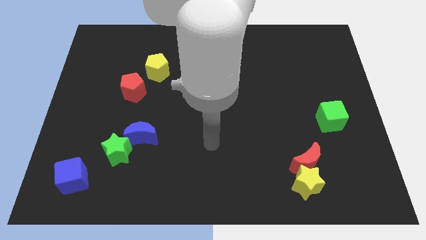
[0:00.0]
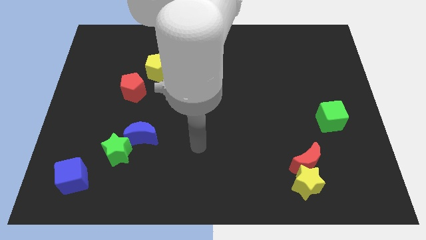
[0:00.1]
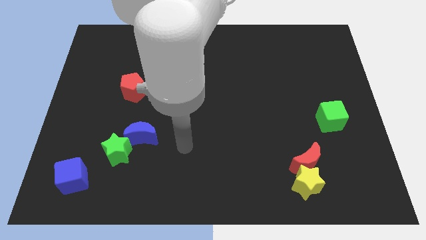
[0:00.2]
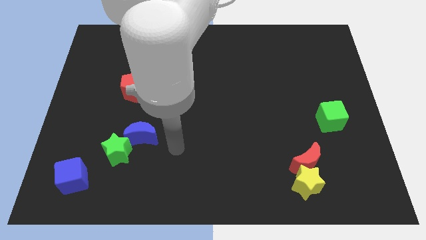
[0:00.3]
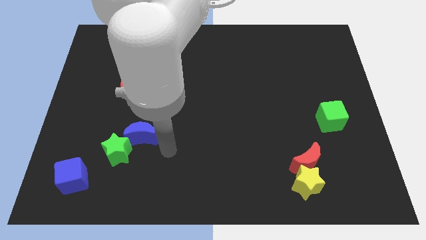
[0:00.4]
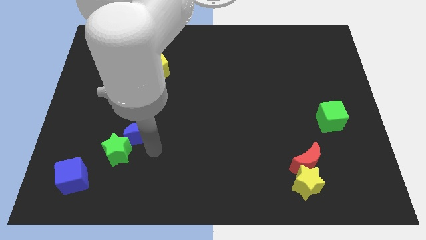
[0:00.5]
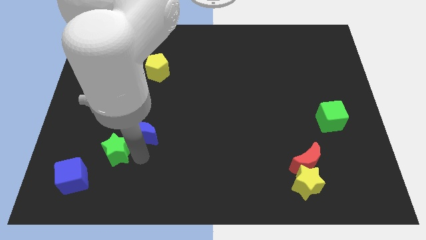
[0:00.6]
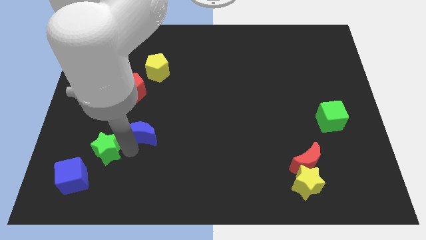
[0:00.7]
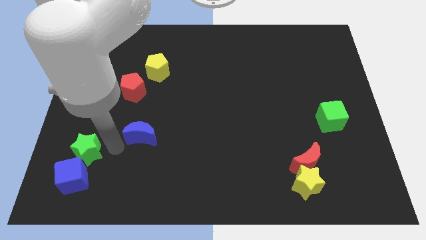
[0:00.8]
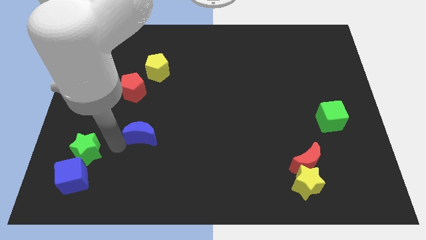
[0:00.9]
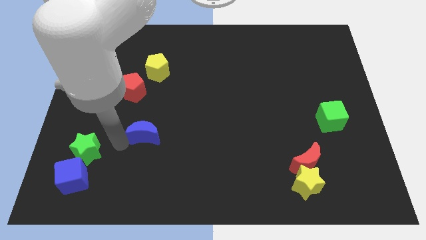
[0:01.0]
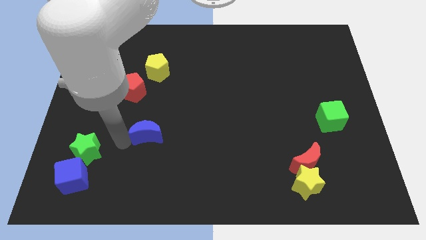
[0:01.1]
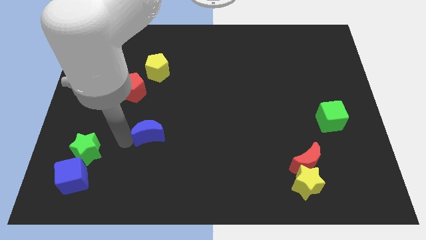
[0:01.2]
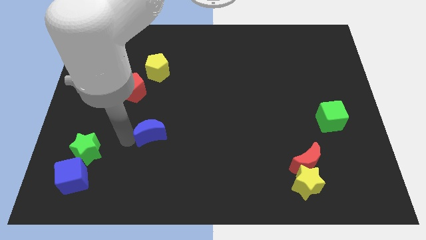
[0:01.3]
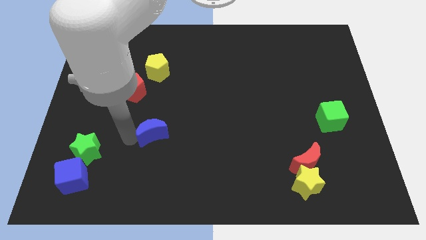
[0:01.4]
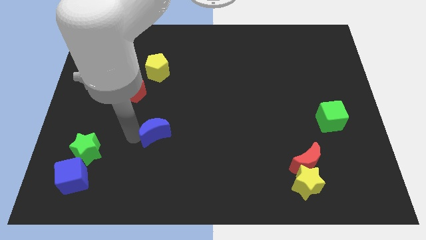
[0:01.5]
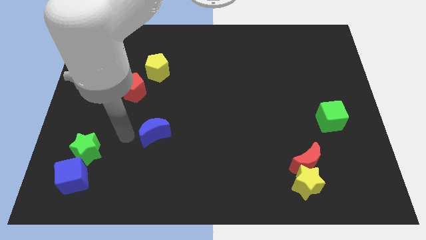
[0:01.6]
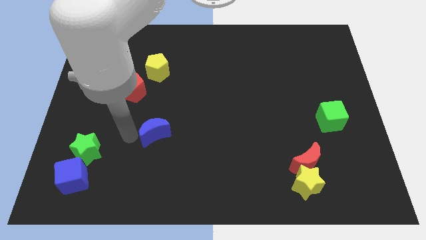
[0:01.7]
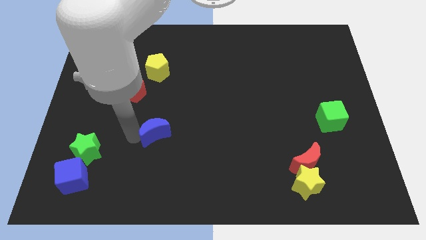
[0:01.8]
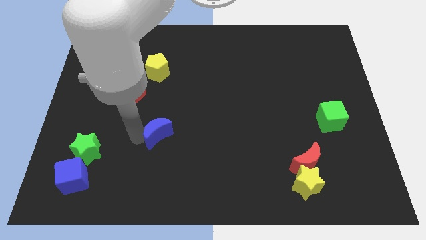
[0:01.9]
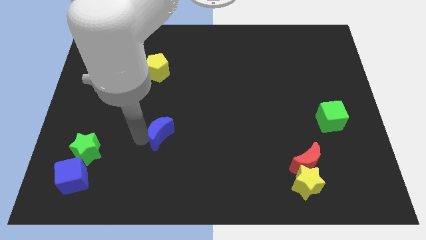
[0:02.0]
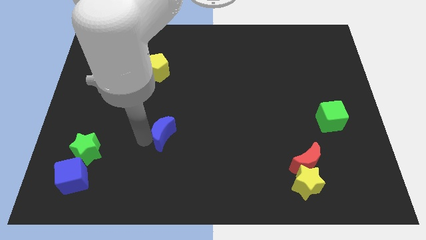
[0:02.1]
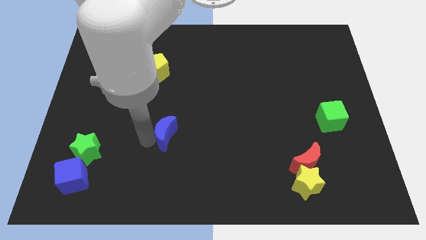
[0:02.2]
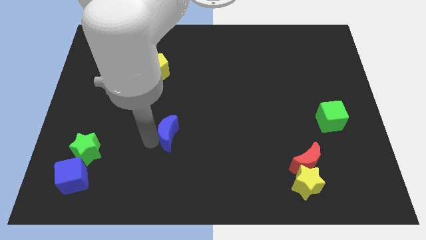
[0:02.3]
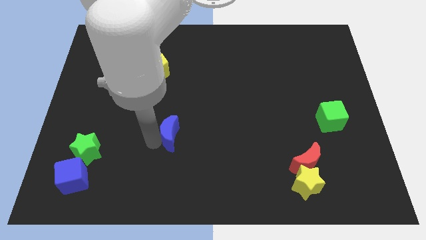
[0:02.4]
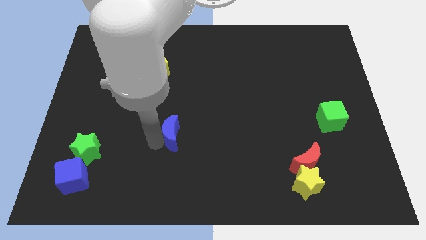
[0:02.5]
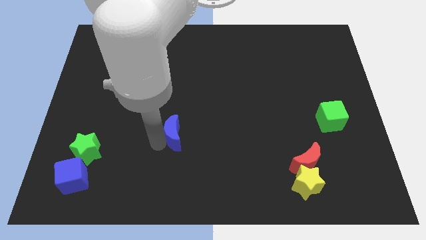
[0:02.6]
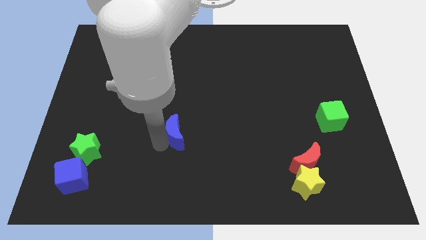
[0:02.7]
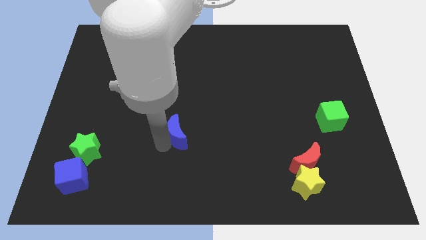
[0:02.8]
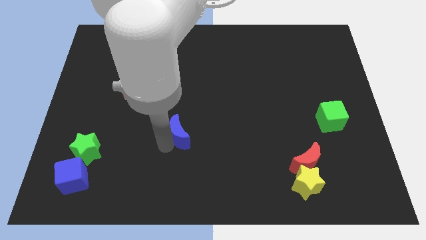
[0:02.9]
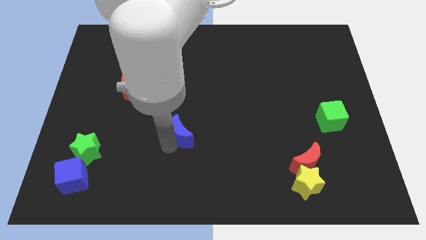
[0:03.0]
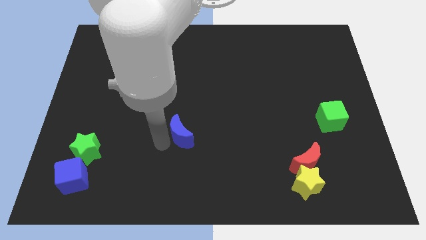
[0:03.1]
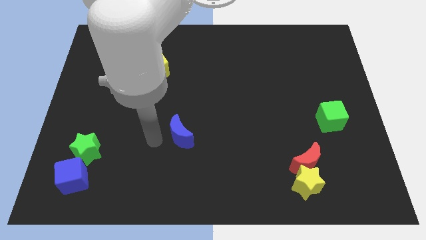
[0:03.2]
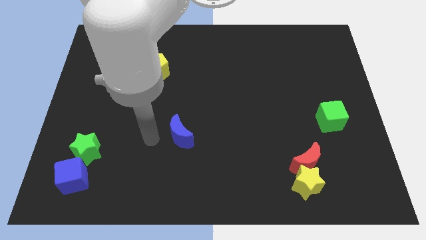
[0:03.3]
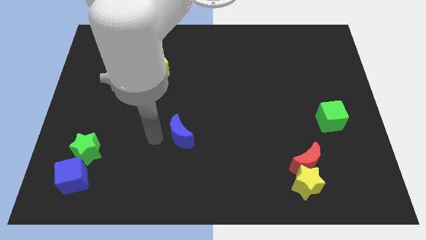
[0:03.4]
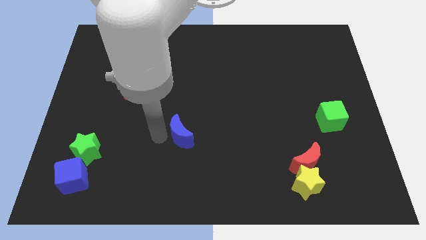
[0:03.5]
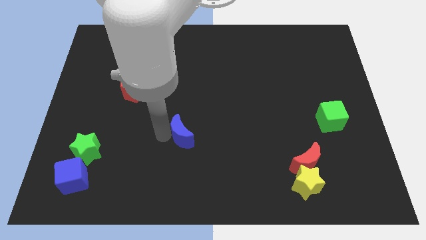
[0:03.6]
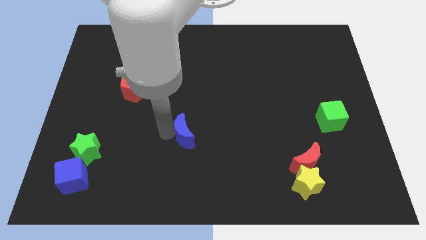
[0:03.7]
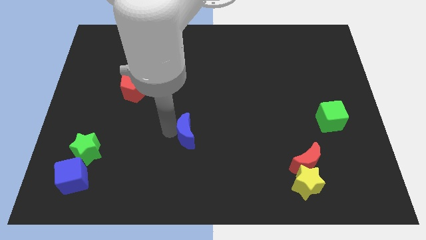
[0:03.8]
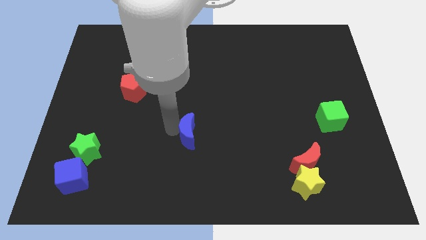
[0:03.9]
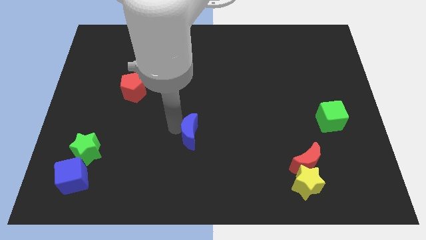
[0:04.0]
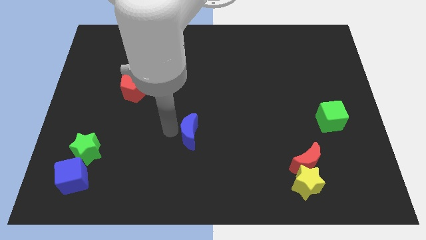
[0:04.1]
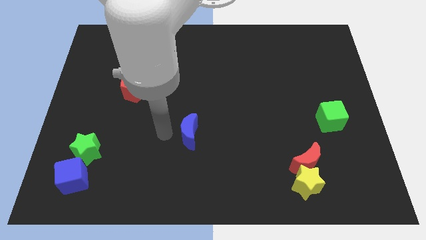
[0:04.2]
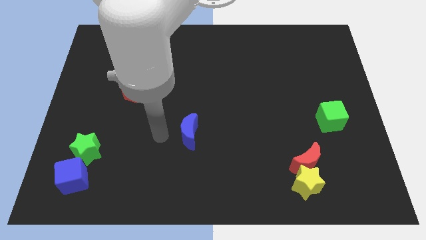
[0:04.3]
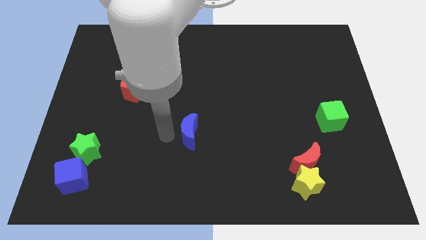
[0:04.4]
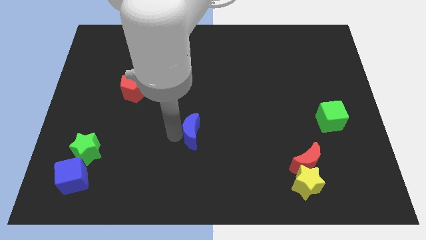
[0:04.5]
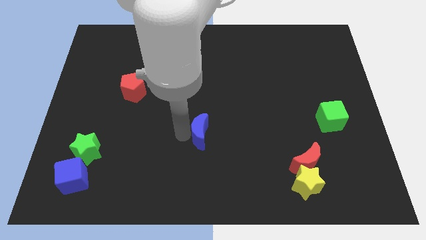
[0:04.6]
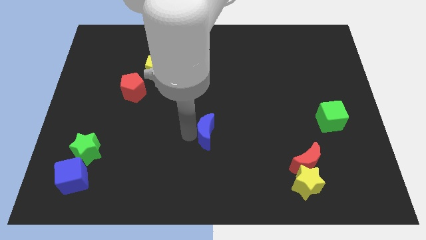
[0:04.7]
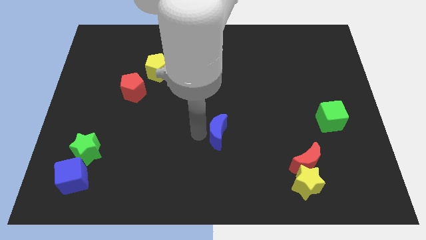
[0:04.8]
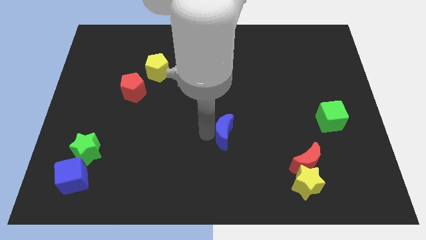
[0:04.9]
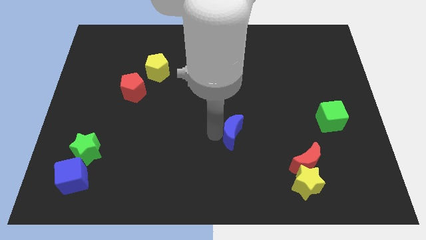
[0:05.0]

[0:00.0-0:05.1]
move the blue moon to the right

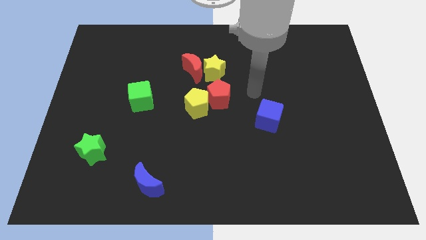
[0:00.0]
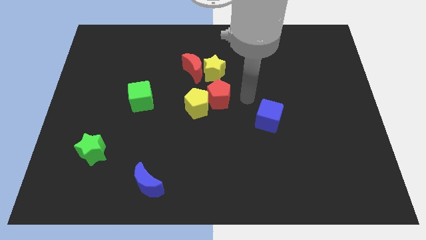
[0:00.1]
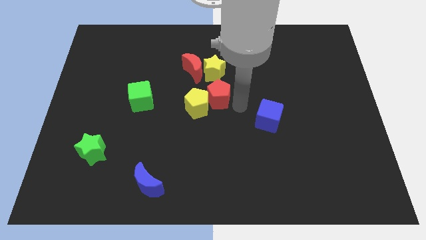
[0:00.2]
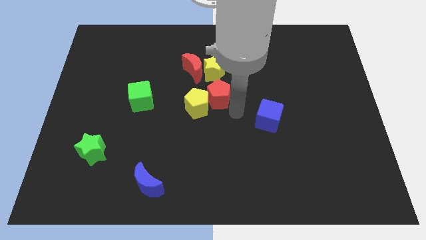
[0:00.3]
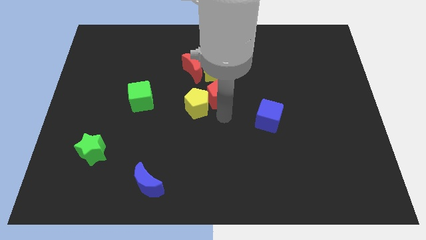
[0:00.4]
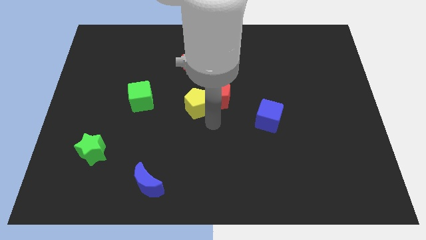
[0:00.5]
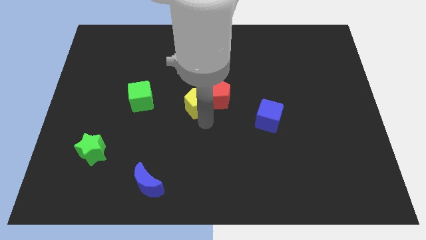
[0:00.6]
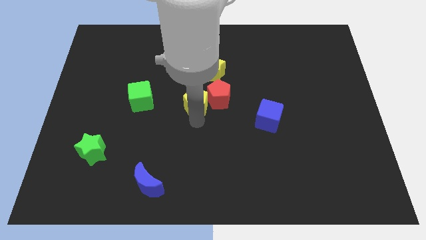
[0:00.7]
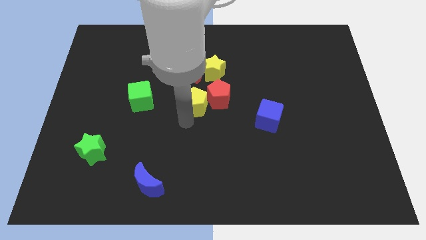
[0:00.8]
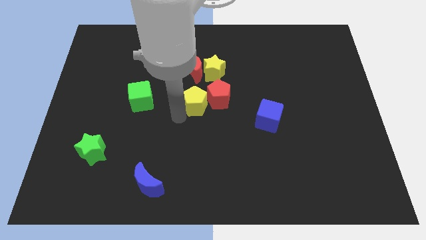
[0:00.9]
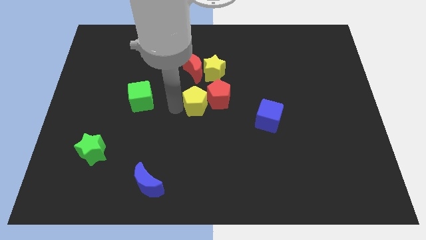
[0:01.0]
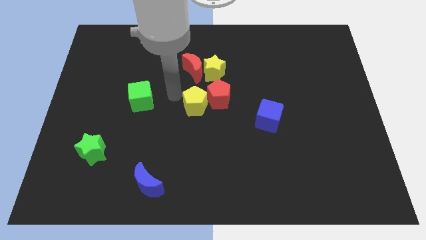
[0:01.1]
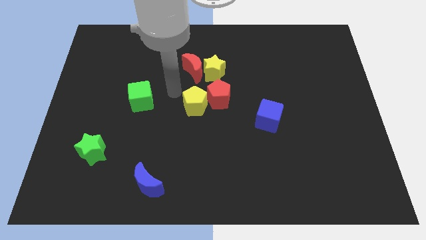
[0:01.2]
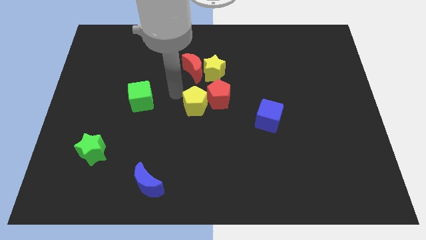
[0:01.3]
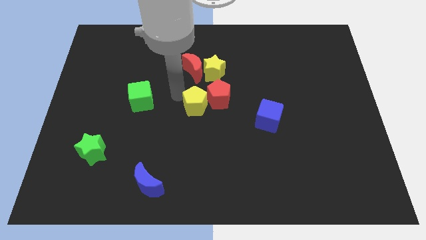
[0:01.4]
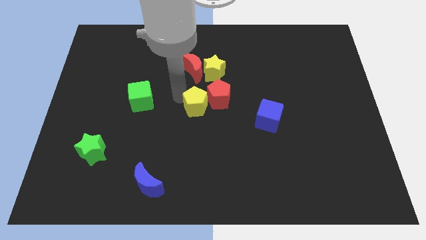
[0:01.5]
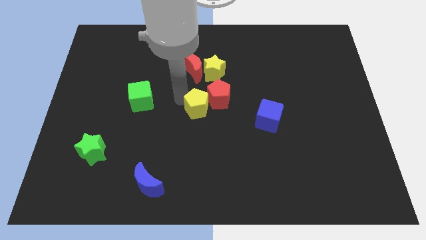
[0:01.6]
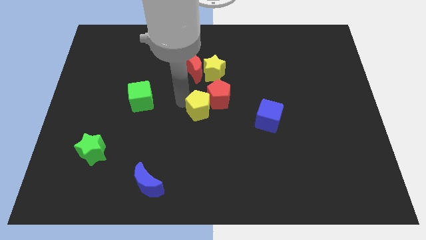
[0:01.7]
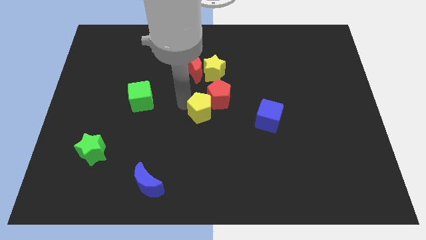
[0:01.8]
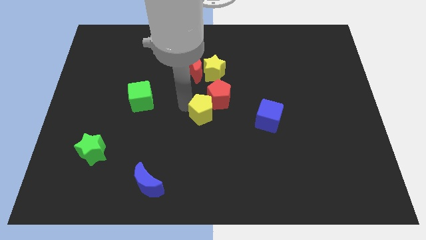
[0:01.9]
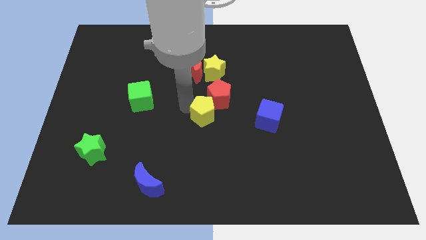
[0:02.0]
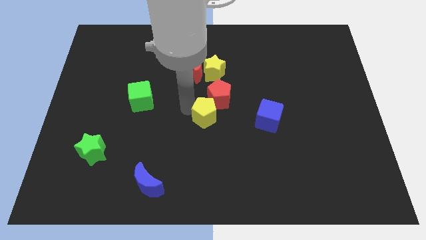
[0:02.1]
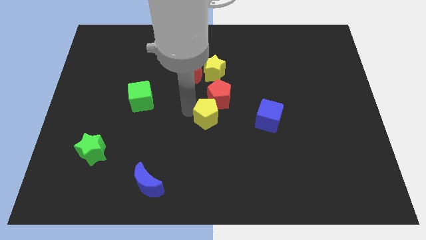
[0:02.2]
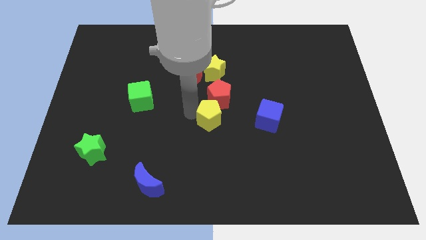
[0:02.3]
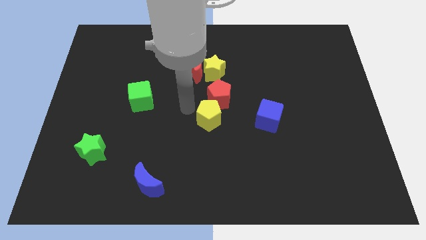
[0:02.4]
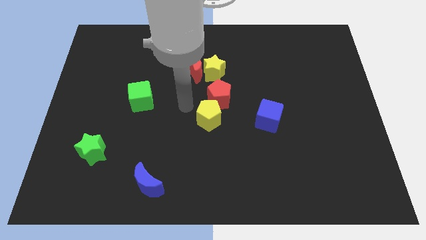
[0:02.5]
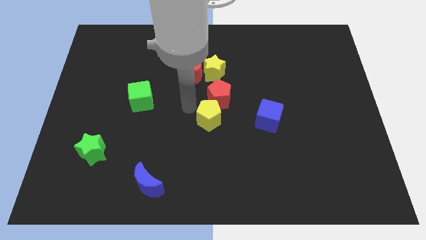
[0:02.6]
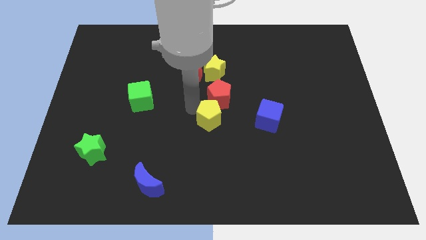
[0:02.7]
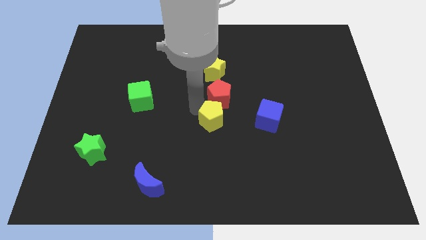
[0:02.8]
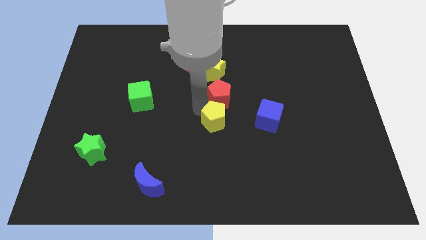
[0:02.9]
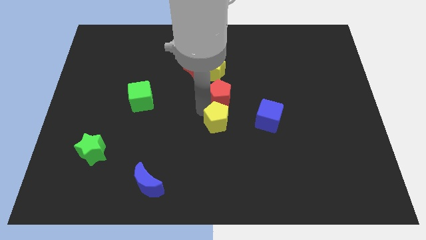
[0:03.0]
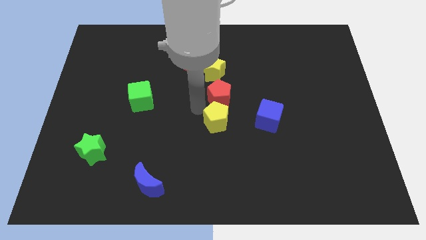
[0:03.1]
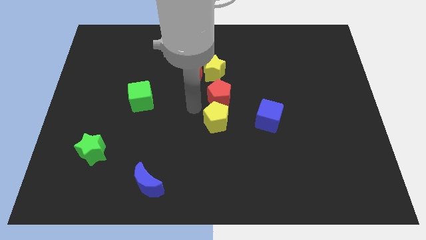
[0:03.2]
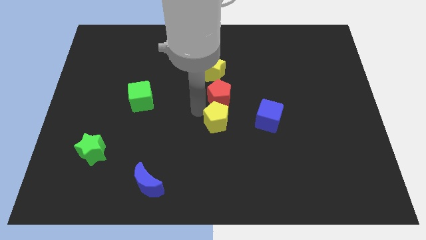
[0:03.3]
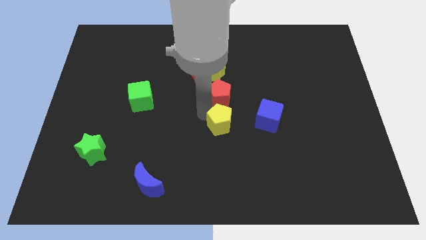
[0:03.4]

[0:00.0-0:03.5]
push the yellow pentagon downwards and to the right somewhat
